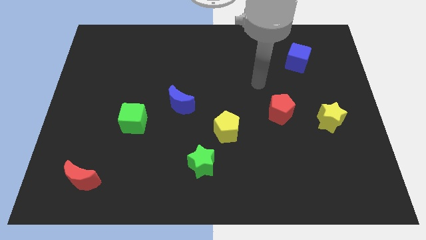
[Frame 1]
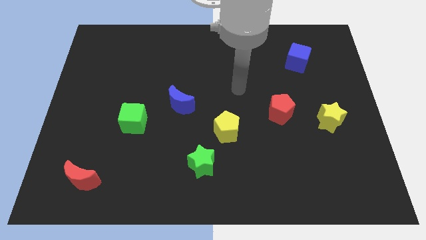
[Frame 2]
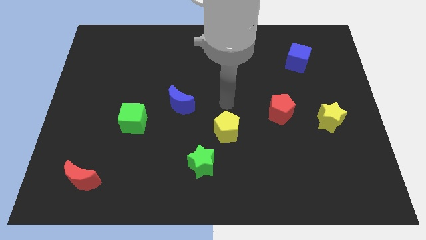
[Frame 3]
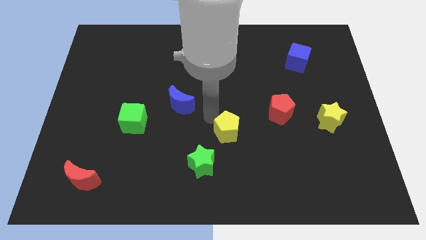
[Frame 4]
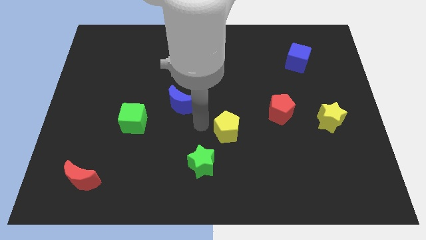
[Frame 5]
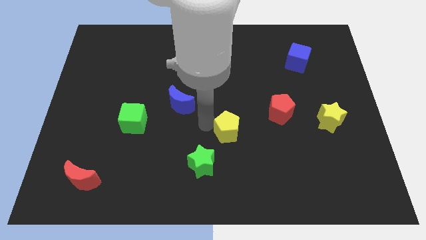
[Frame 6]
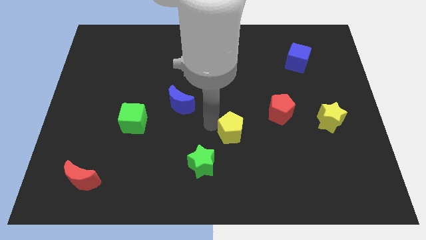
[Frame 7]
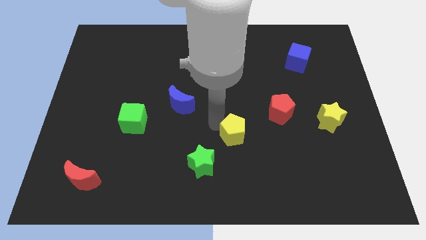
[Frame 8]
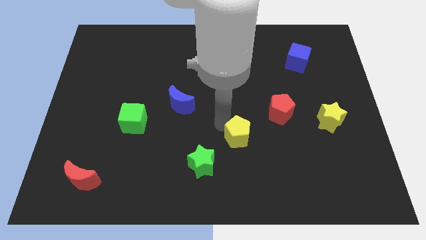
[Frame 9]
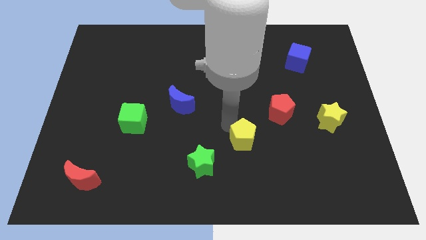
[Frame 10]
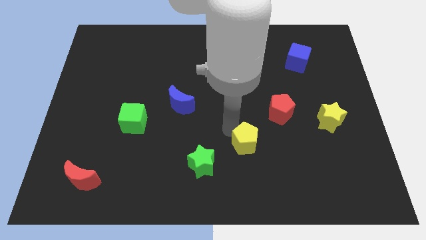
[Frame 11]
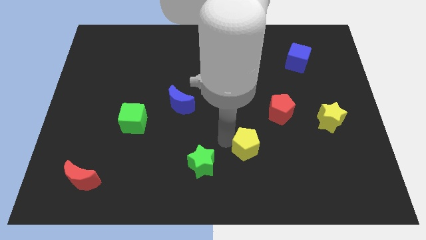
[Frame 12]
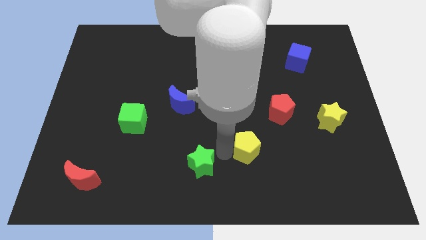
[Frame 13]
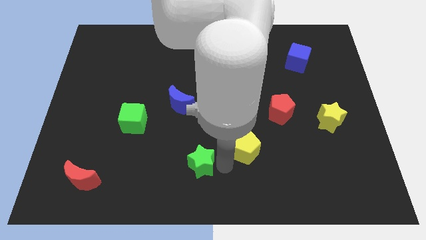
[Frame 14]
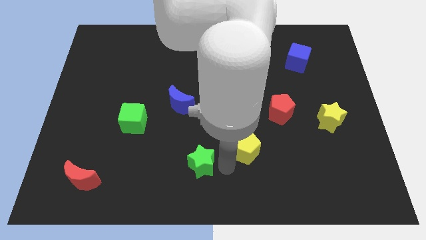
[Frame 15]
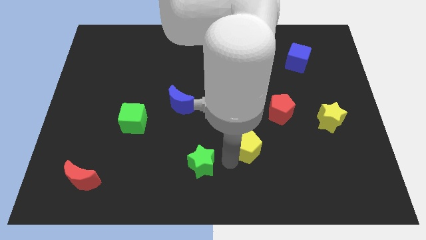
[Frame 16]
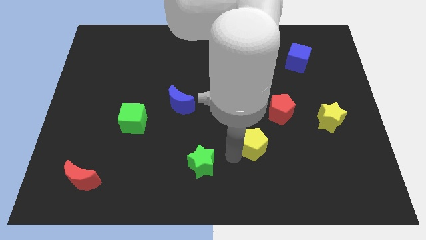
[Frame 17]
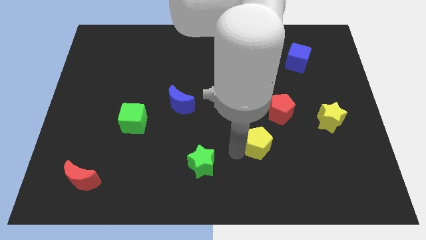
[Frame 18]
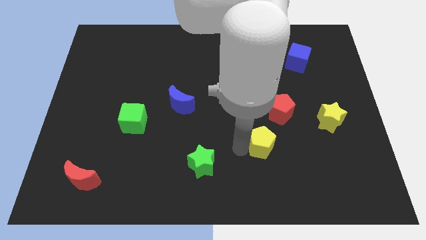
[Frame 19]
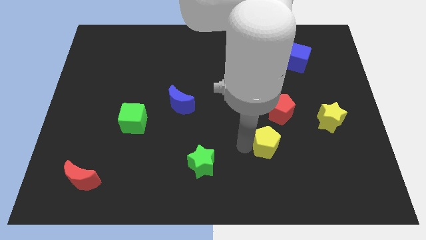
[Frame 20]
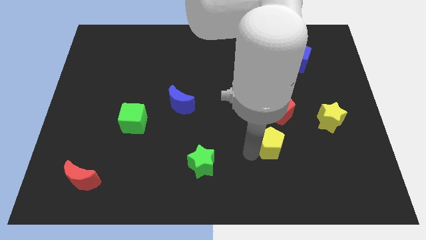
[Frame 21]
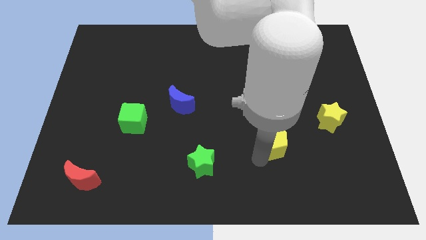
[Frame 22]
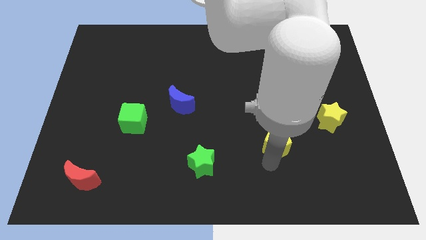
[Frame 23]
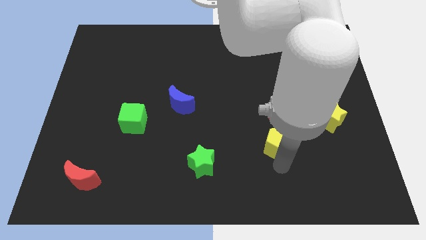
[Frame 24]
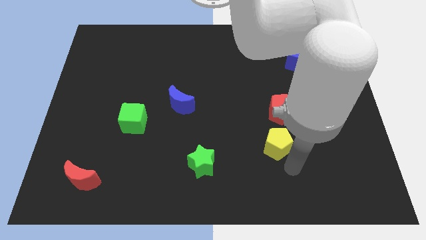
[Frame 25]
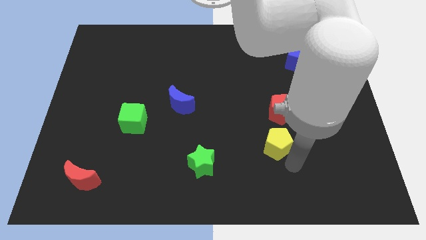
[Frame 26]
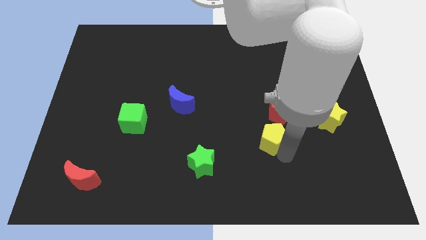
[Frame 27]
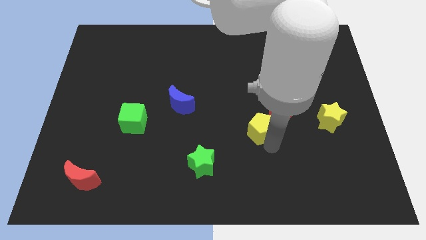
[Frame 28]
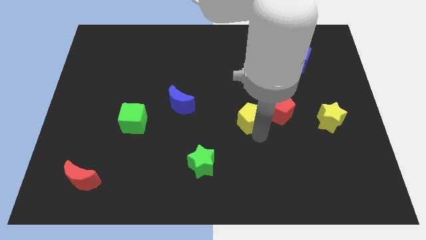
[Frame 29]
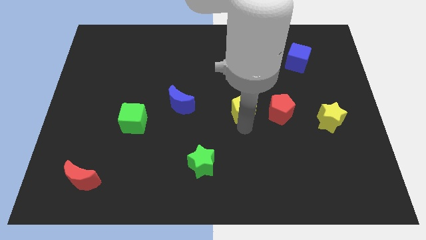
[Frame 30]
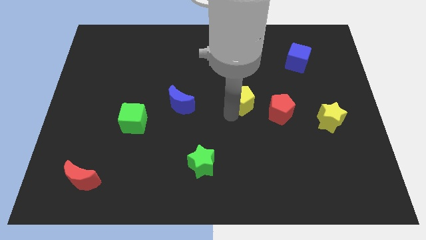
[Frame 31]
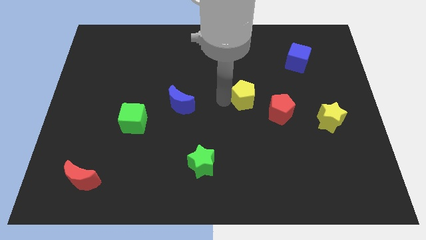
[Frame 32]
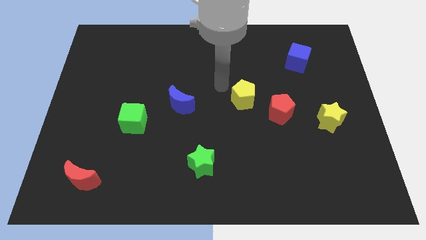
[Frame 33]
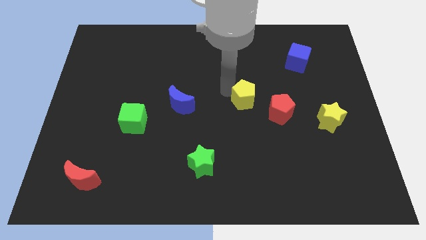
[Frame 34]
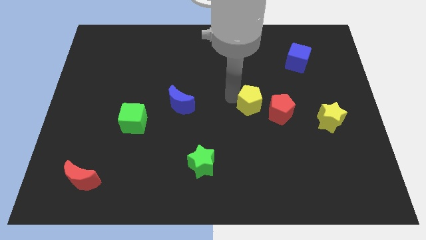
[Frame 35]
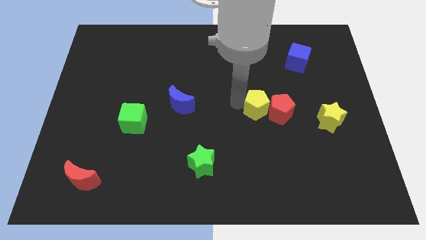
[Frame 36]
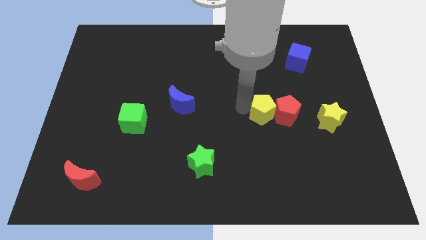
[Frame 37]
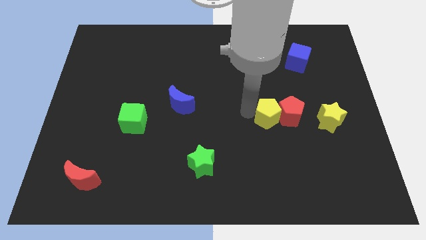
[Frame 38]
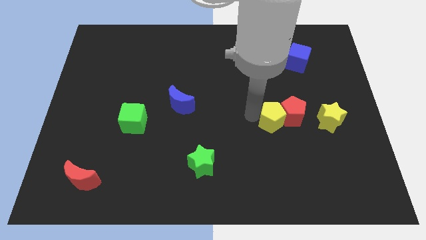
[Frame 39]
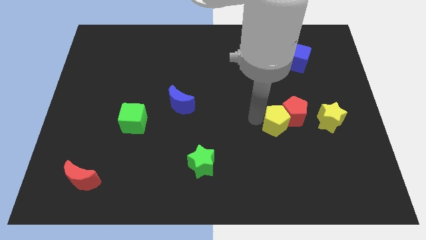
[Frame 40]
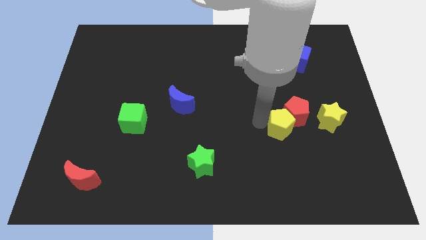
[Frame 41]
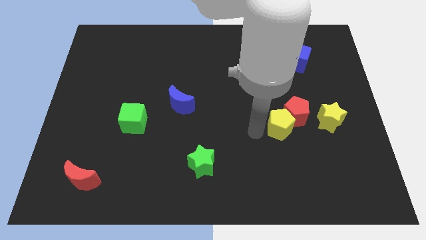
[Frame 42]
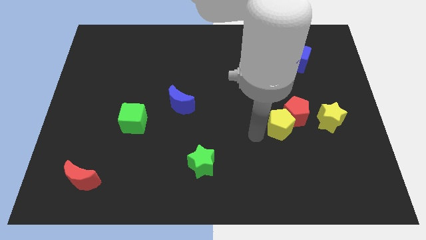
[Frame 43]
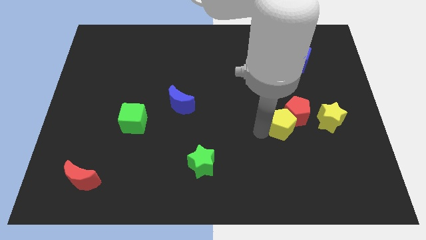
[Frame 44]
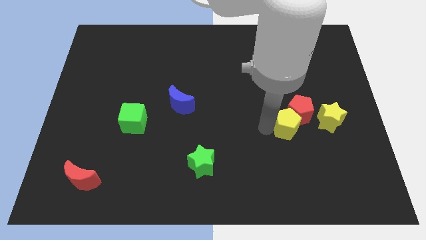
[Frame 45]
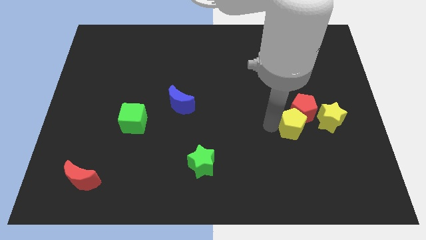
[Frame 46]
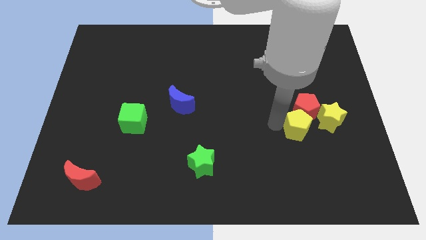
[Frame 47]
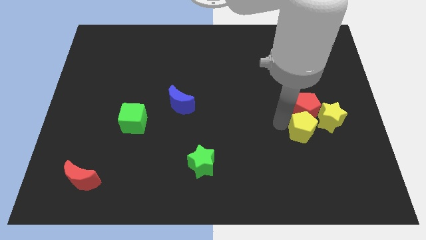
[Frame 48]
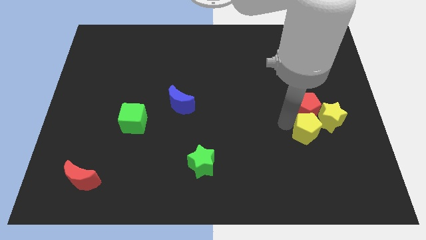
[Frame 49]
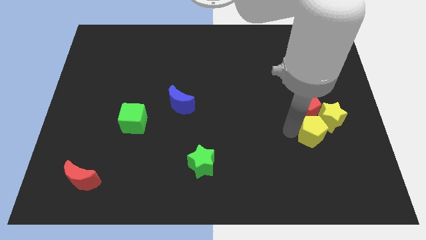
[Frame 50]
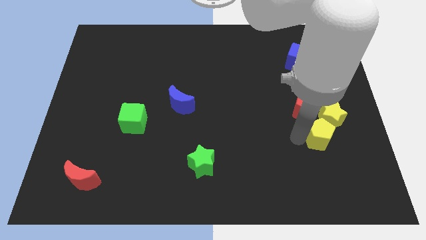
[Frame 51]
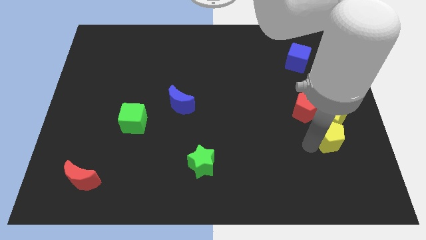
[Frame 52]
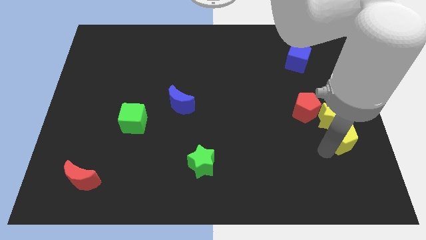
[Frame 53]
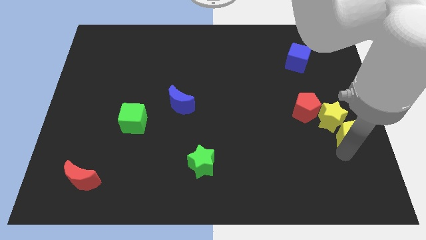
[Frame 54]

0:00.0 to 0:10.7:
move the yellow pentagon to the right side of the board

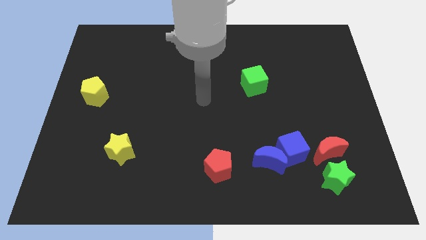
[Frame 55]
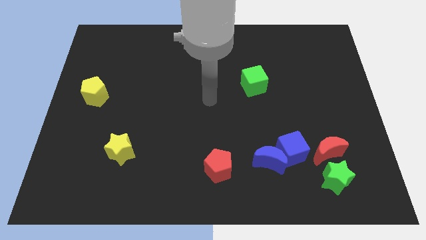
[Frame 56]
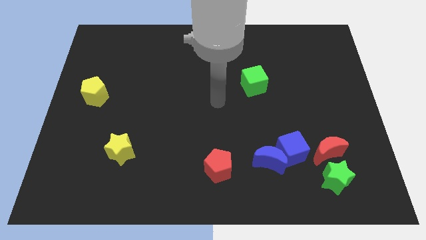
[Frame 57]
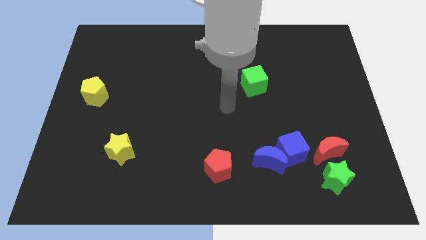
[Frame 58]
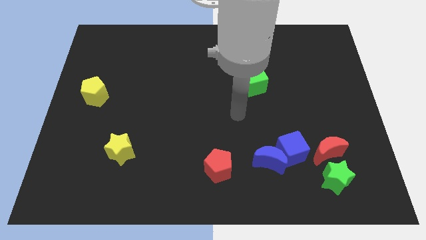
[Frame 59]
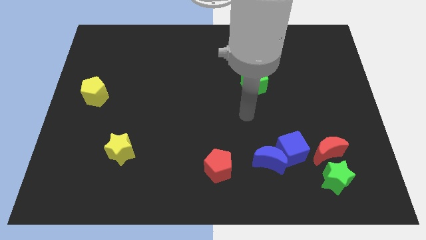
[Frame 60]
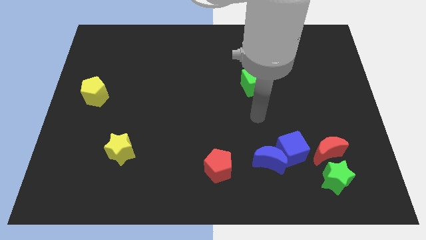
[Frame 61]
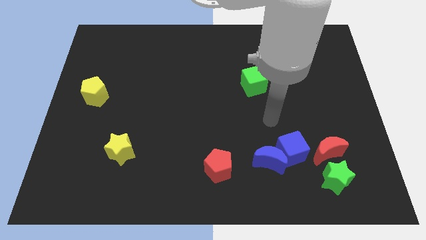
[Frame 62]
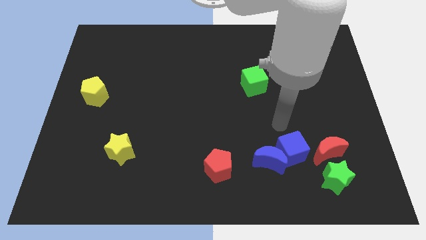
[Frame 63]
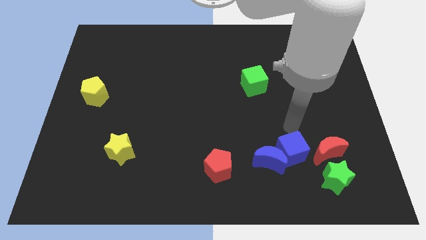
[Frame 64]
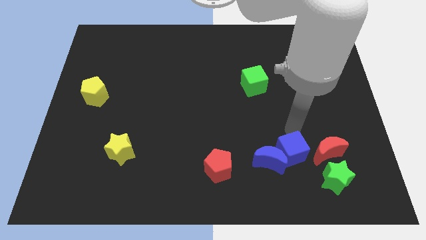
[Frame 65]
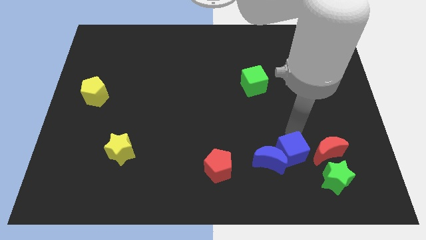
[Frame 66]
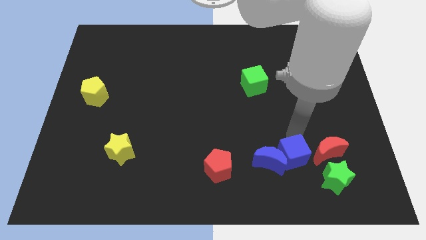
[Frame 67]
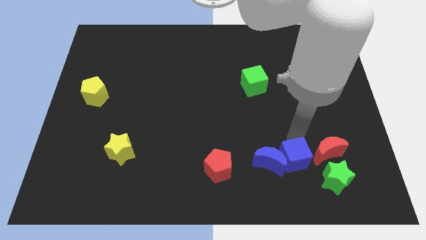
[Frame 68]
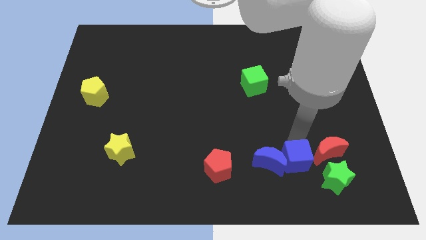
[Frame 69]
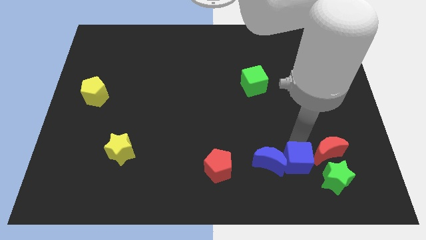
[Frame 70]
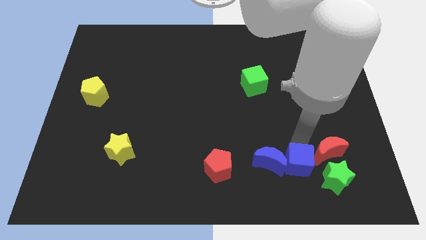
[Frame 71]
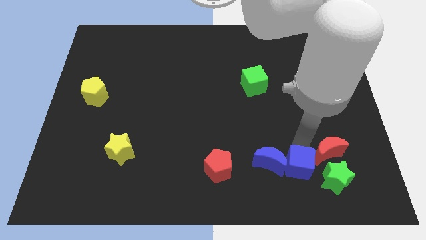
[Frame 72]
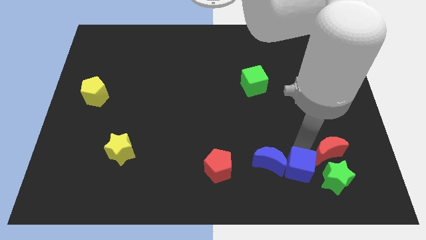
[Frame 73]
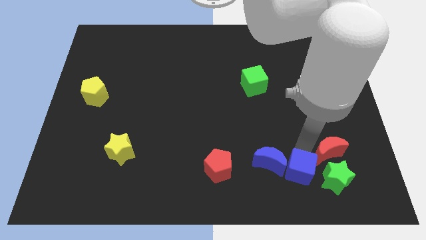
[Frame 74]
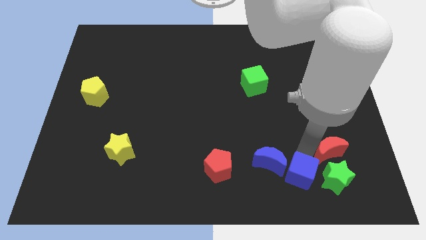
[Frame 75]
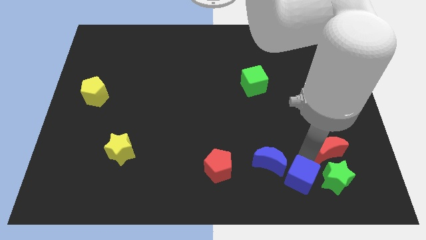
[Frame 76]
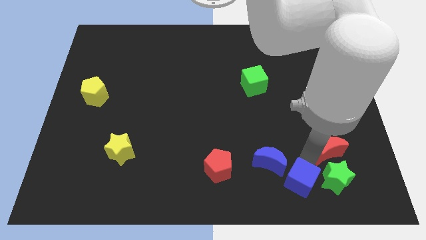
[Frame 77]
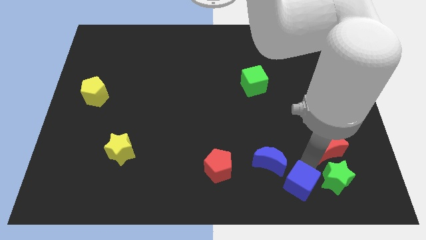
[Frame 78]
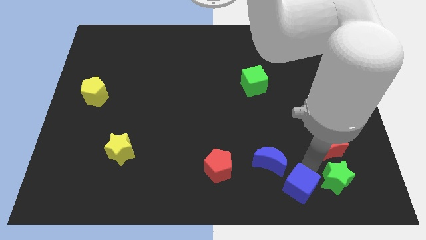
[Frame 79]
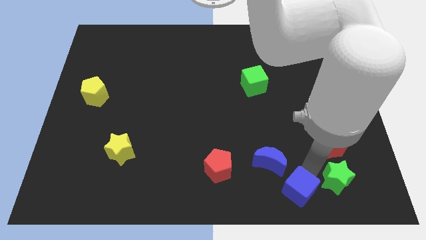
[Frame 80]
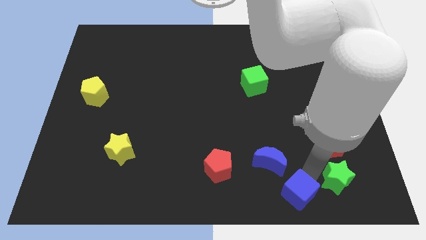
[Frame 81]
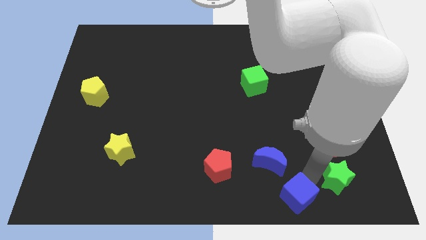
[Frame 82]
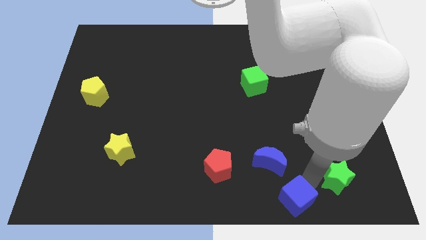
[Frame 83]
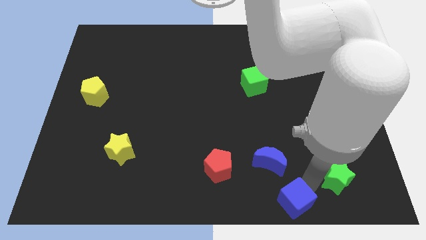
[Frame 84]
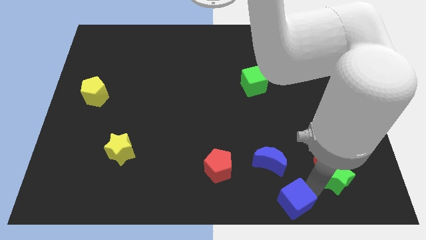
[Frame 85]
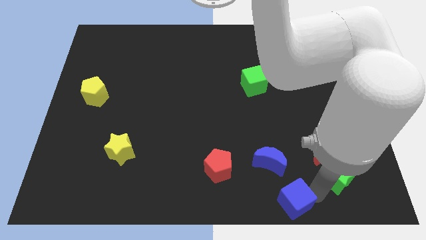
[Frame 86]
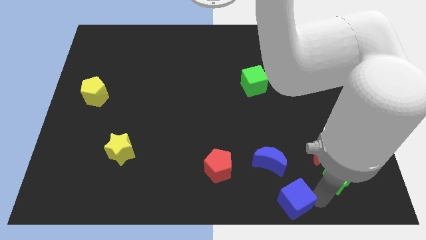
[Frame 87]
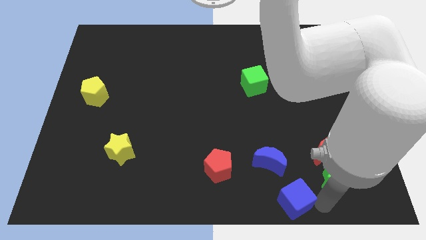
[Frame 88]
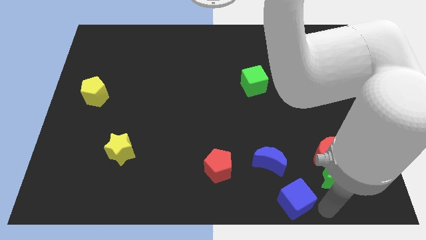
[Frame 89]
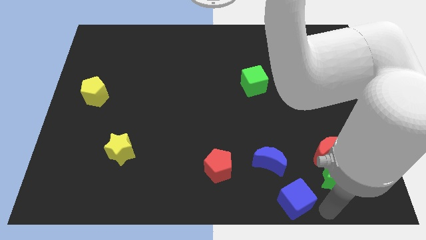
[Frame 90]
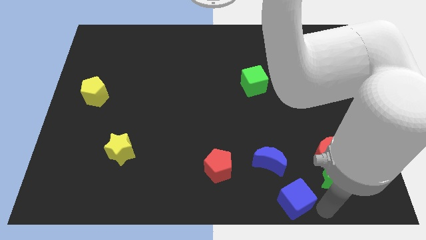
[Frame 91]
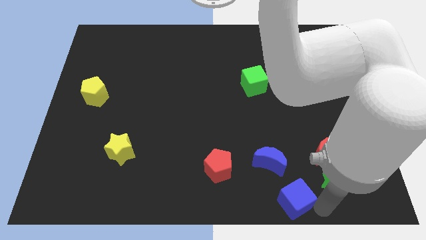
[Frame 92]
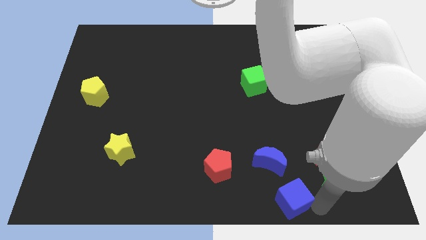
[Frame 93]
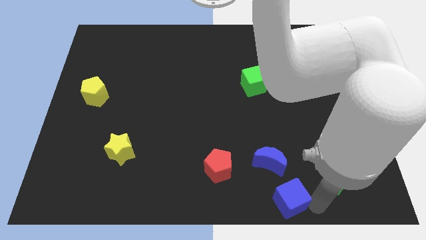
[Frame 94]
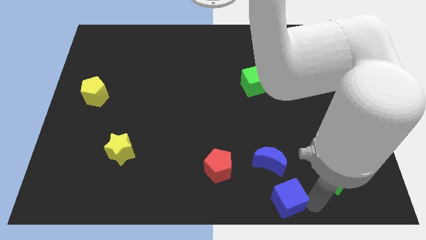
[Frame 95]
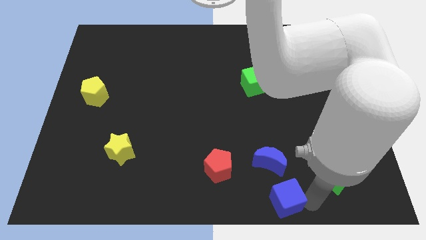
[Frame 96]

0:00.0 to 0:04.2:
push the blue cube to the bottom side
